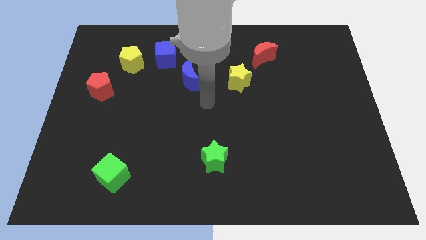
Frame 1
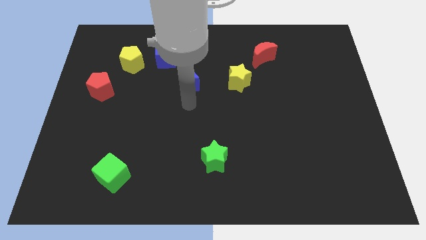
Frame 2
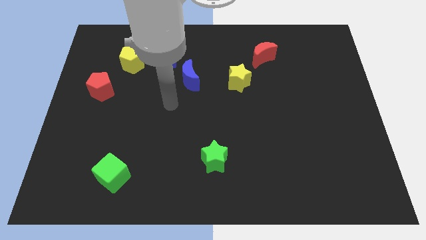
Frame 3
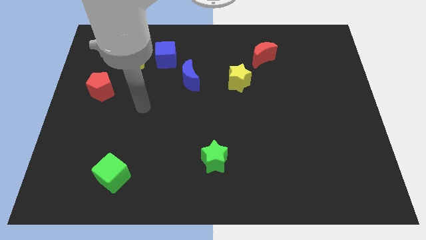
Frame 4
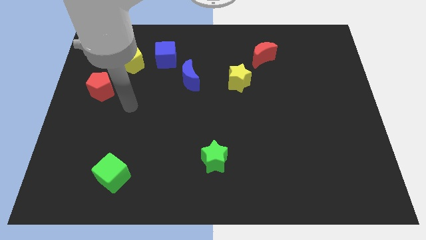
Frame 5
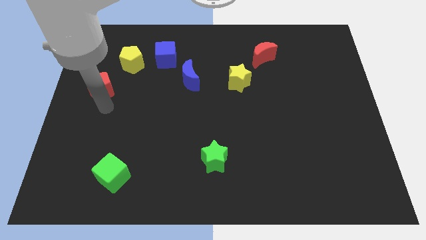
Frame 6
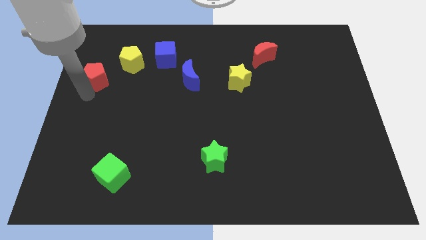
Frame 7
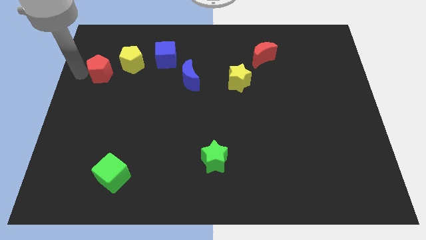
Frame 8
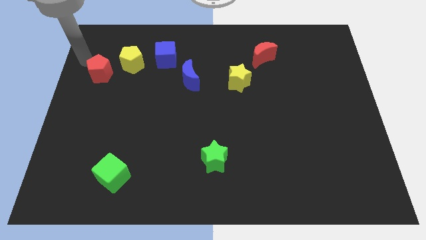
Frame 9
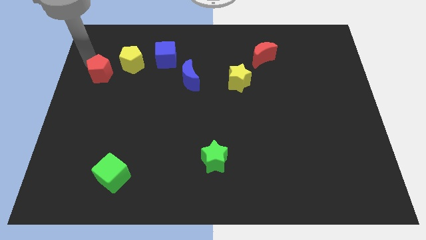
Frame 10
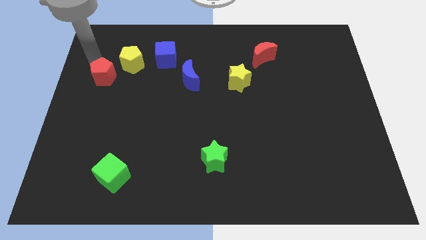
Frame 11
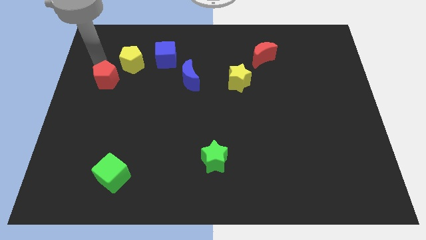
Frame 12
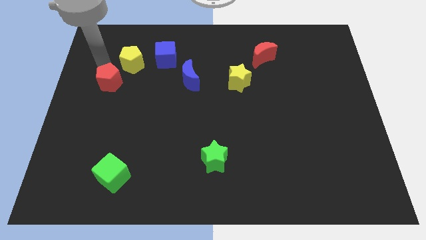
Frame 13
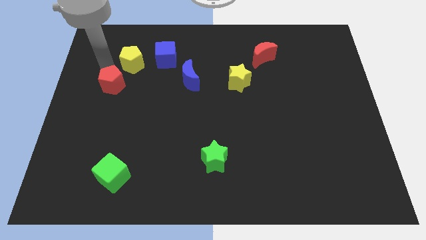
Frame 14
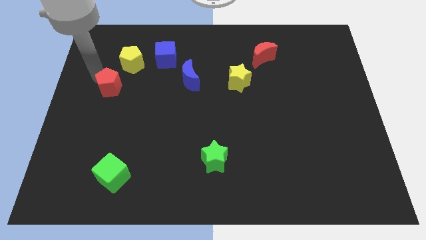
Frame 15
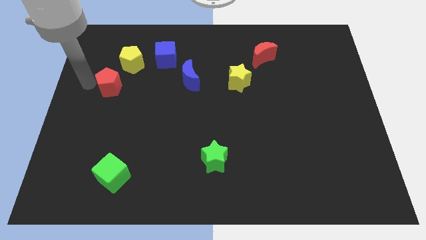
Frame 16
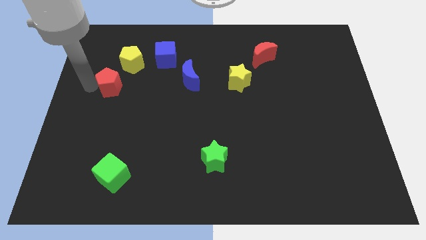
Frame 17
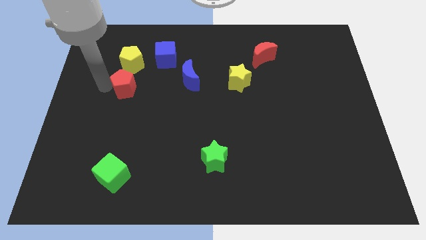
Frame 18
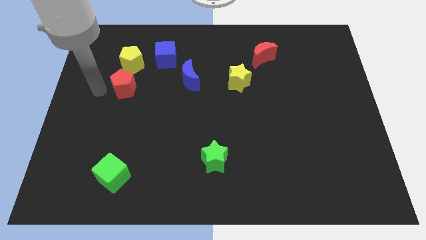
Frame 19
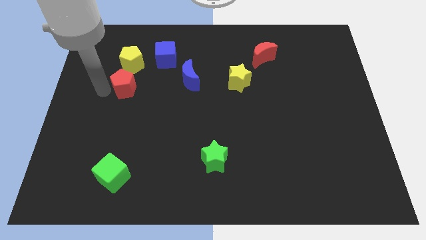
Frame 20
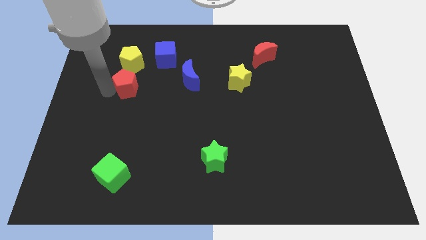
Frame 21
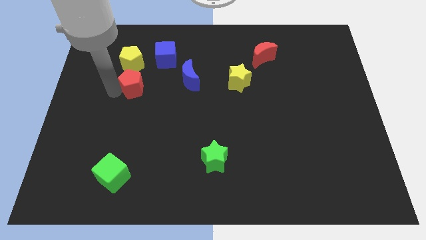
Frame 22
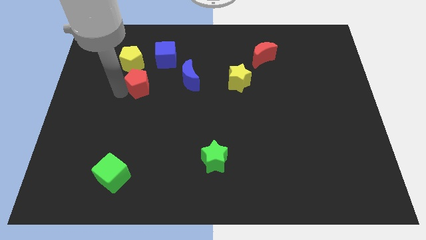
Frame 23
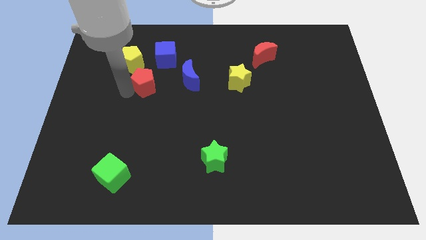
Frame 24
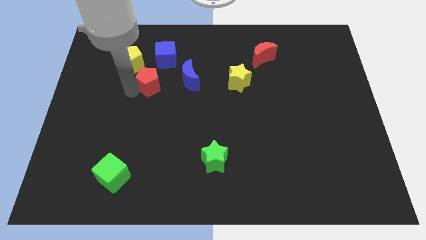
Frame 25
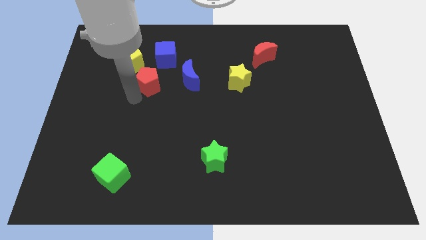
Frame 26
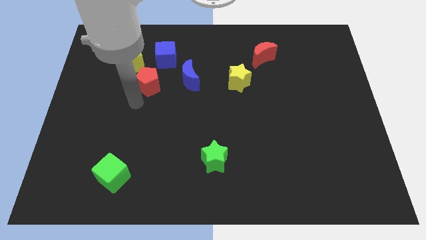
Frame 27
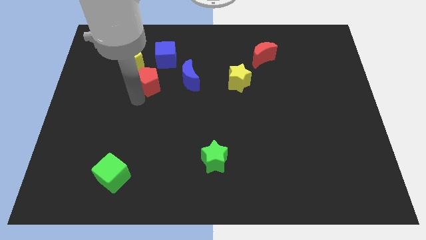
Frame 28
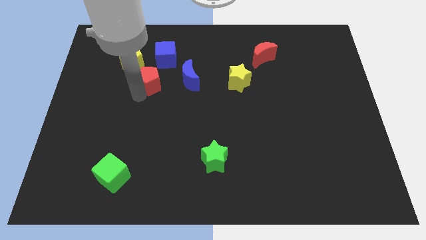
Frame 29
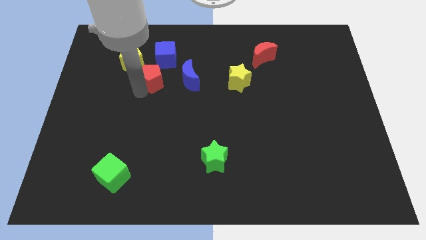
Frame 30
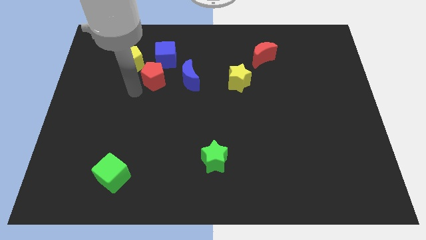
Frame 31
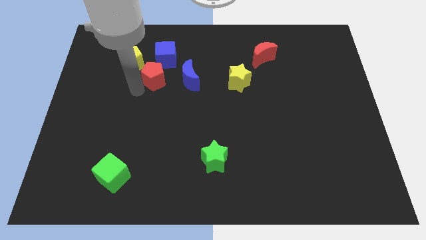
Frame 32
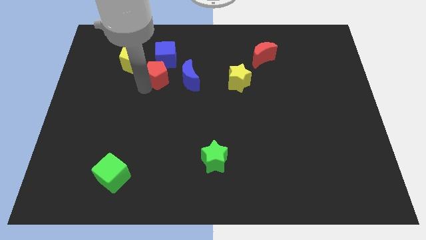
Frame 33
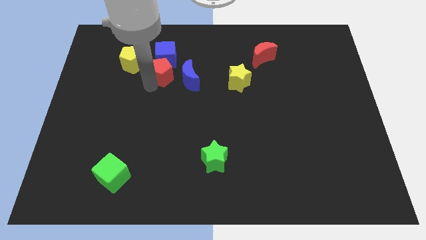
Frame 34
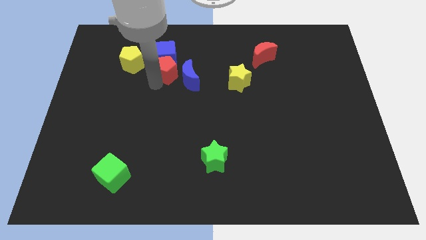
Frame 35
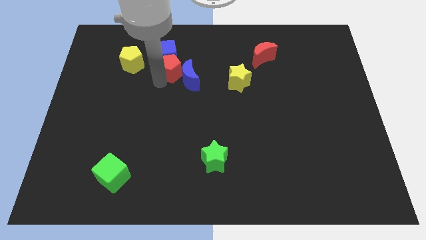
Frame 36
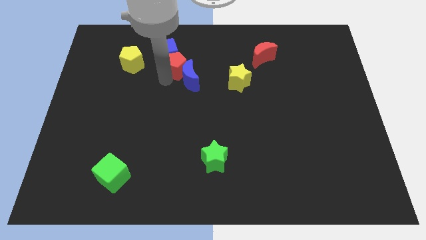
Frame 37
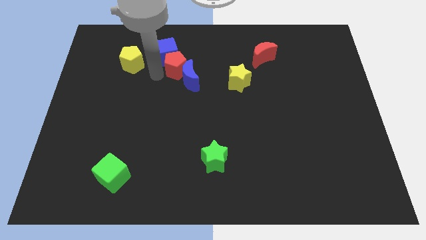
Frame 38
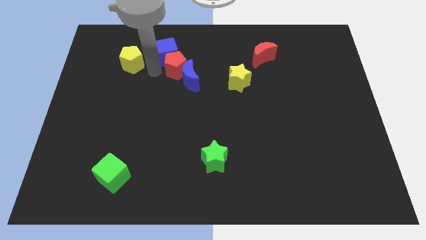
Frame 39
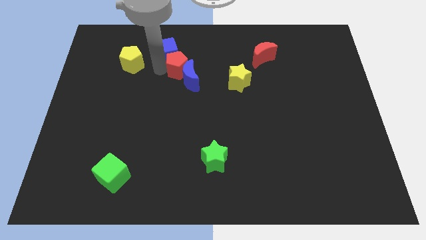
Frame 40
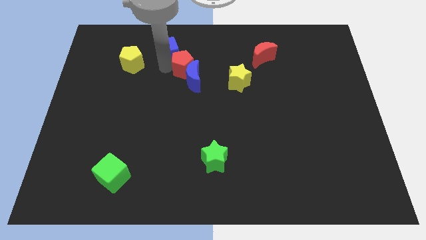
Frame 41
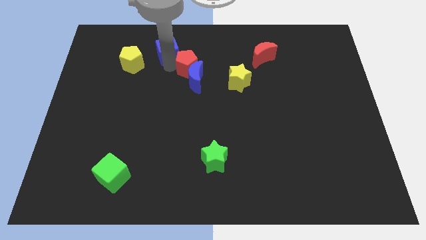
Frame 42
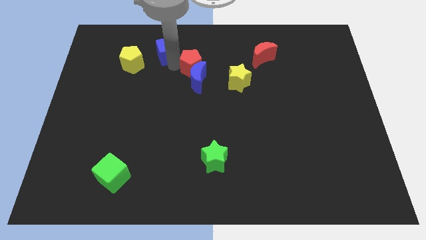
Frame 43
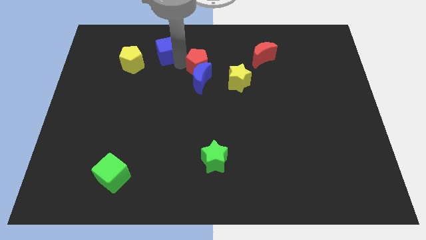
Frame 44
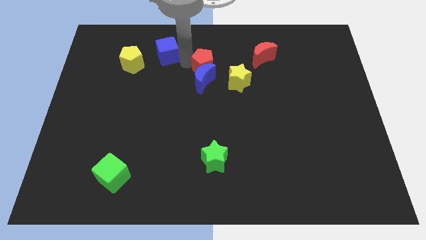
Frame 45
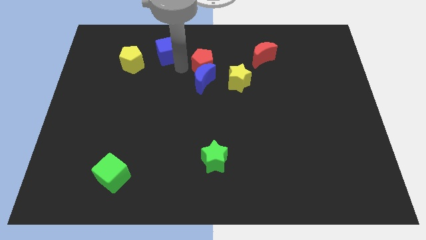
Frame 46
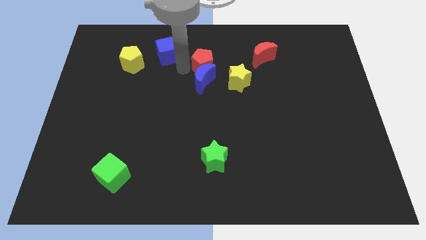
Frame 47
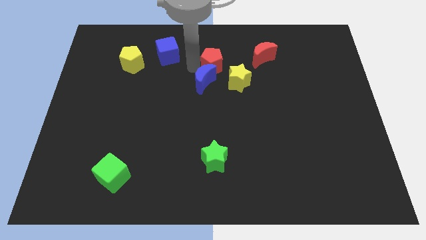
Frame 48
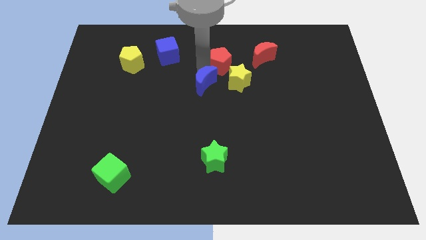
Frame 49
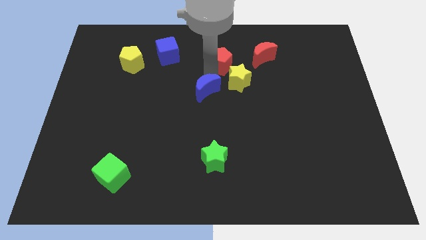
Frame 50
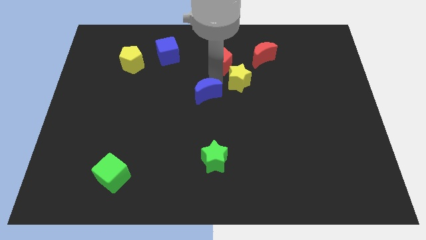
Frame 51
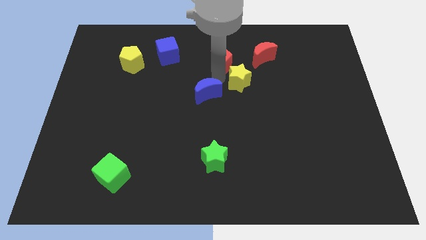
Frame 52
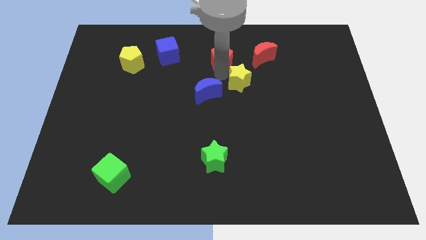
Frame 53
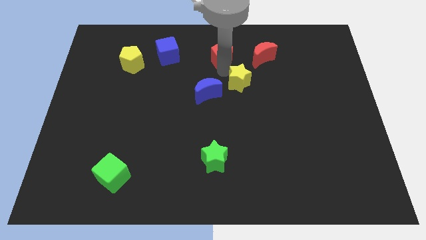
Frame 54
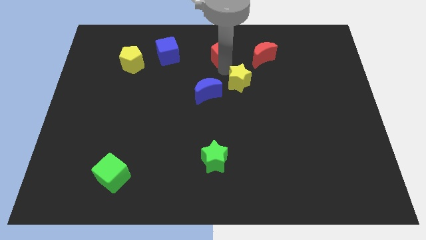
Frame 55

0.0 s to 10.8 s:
put the red pentagon to the top

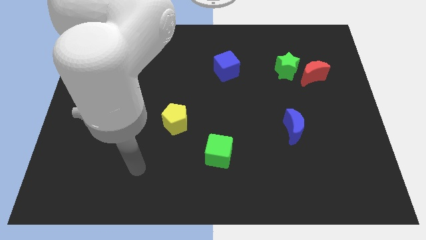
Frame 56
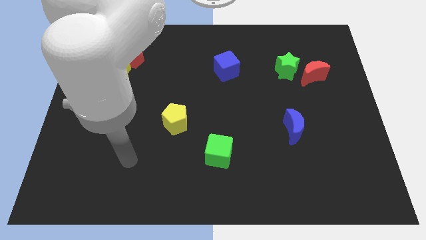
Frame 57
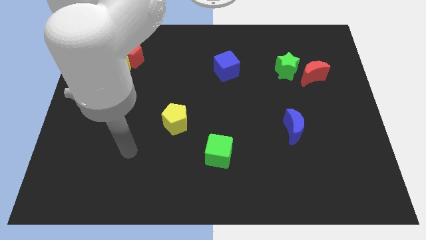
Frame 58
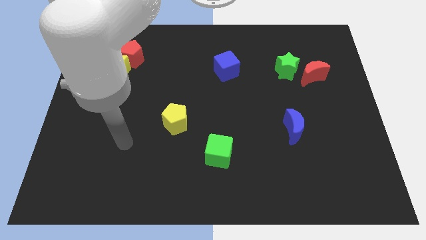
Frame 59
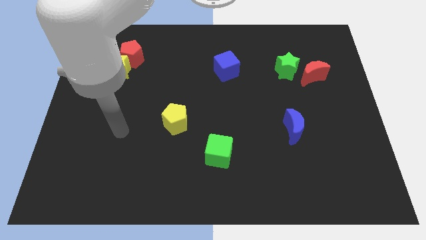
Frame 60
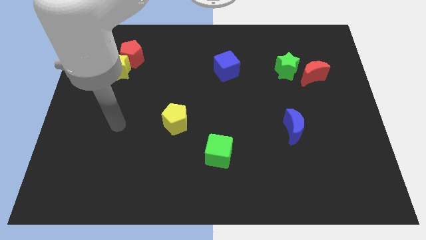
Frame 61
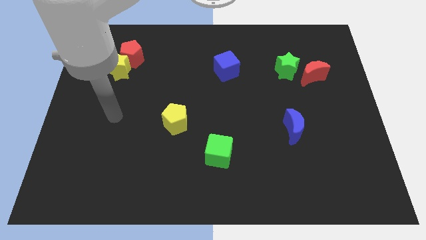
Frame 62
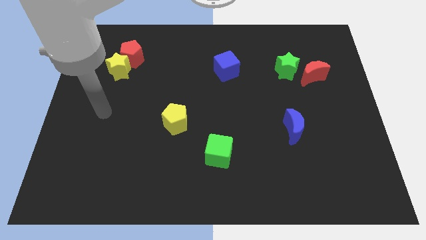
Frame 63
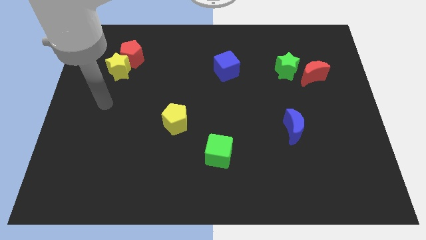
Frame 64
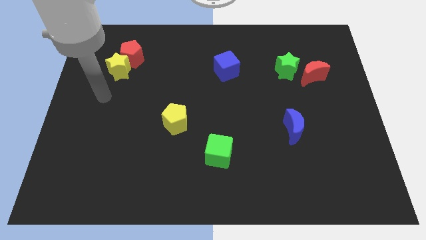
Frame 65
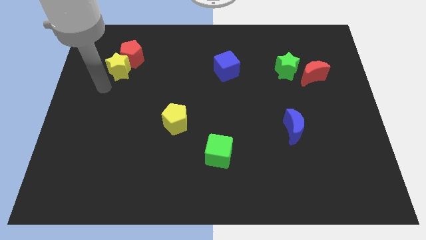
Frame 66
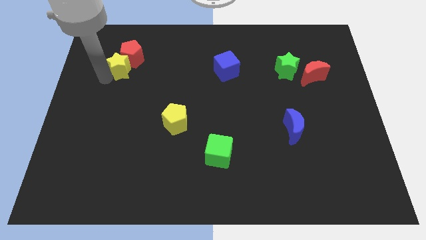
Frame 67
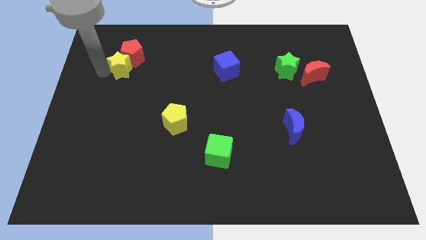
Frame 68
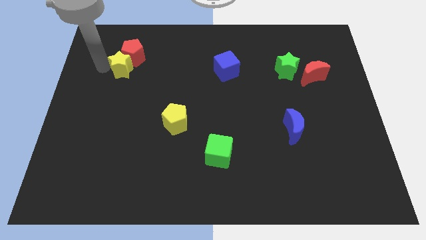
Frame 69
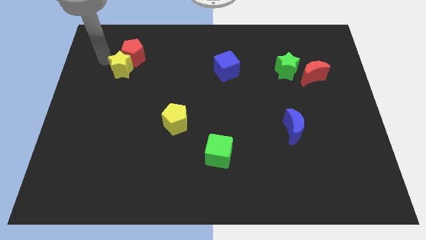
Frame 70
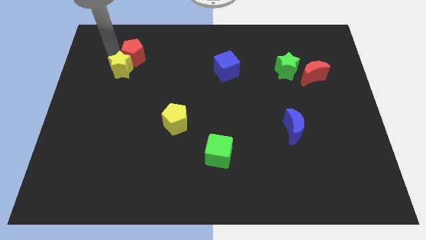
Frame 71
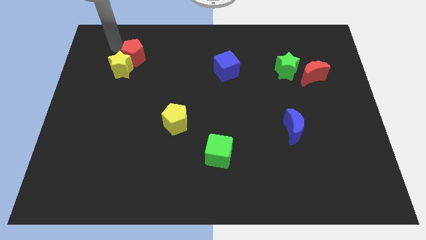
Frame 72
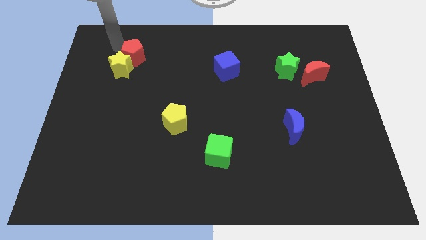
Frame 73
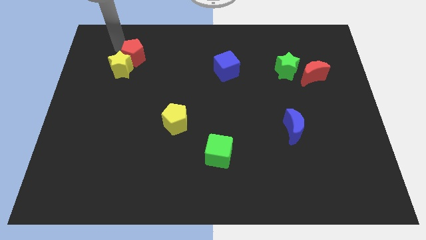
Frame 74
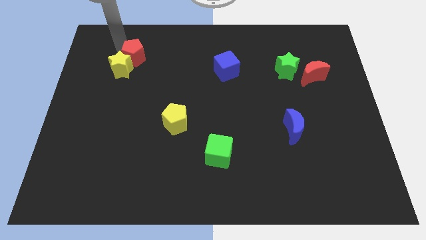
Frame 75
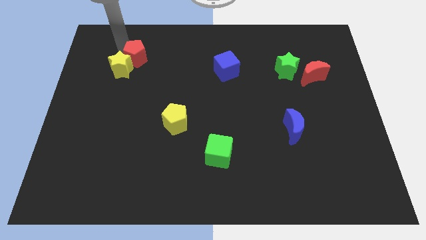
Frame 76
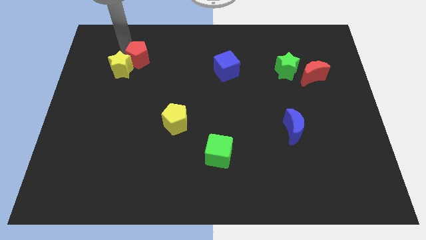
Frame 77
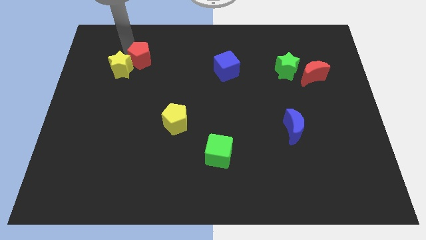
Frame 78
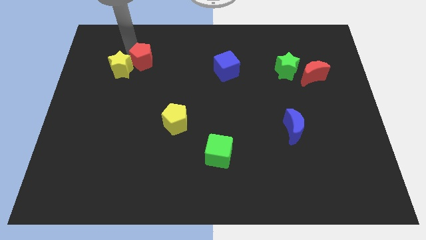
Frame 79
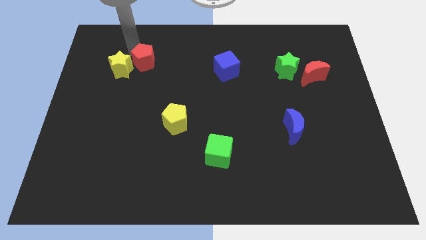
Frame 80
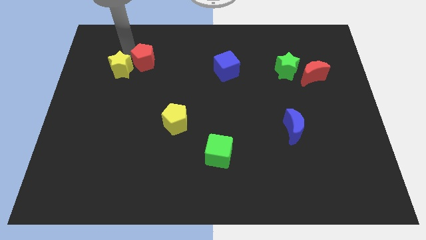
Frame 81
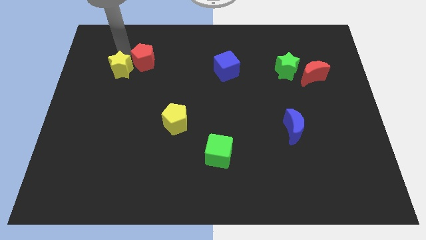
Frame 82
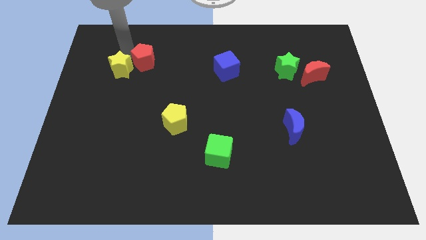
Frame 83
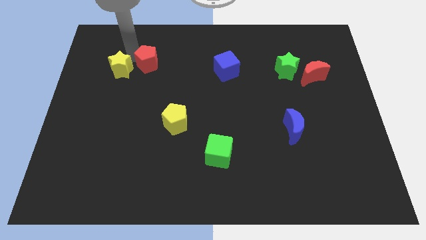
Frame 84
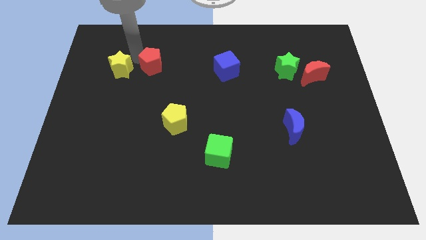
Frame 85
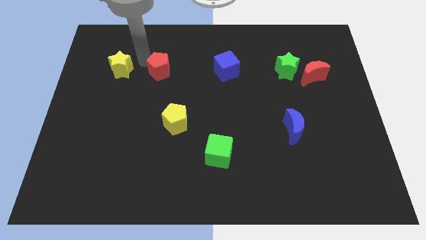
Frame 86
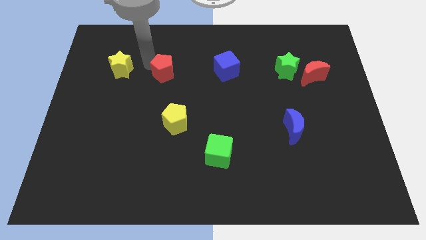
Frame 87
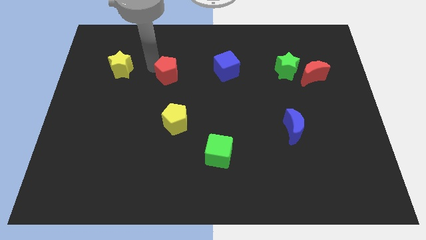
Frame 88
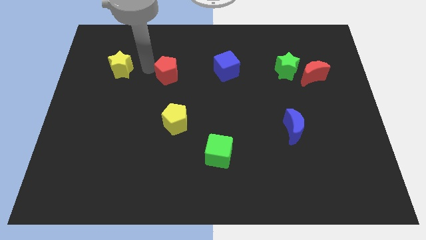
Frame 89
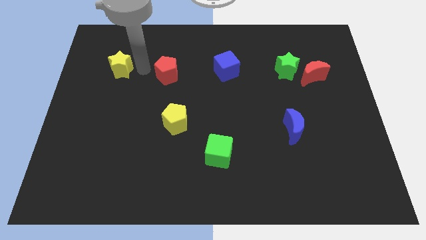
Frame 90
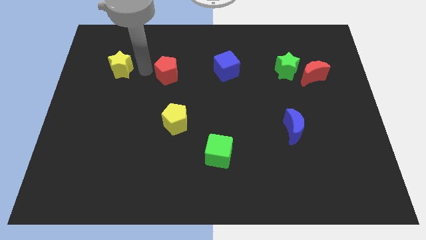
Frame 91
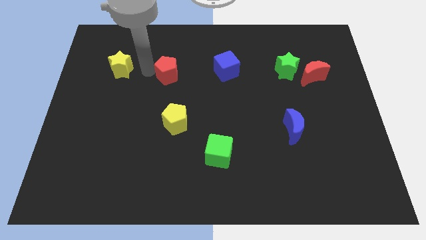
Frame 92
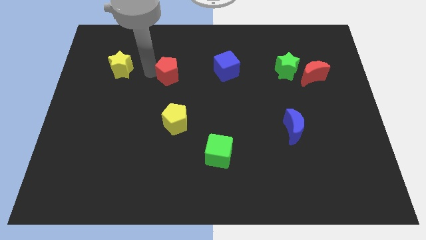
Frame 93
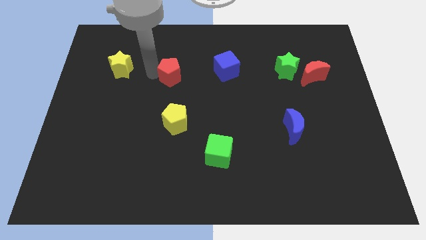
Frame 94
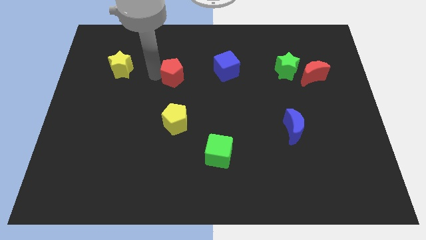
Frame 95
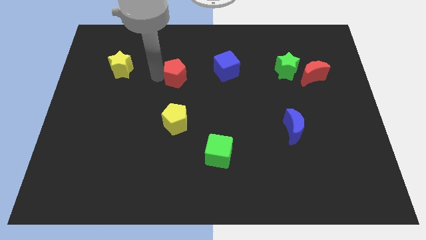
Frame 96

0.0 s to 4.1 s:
move the red pentagon to the middle of the board
